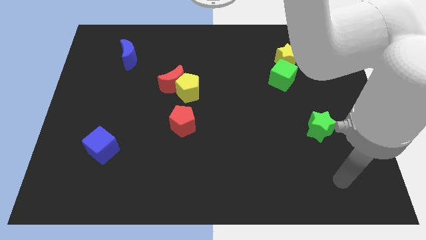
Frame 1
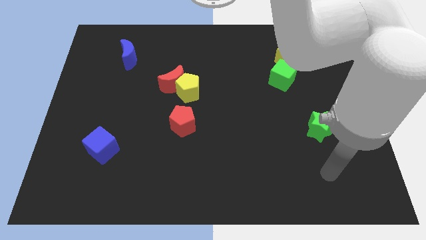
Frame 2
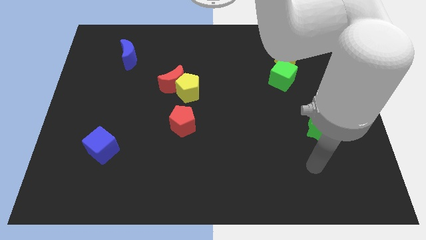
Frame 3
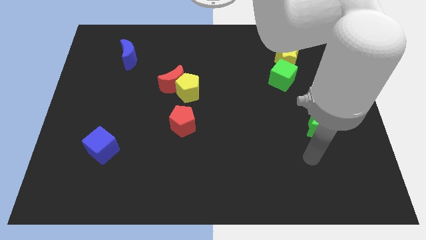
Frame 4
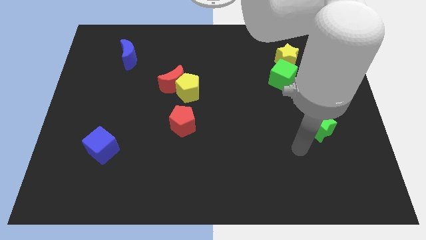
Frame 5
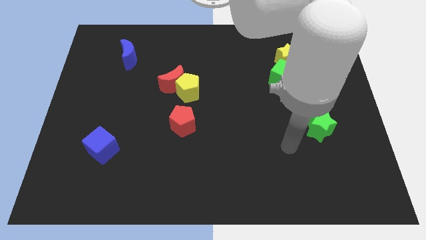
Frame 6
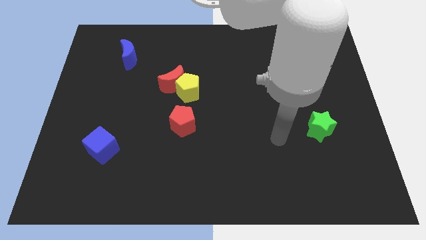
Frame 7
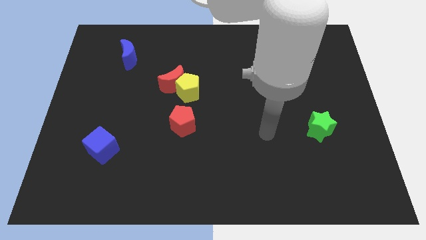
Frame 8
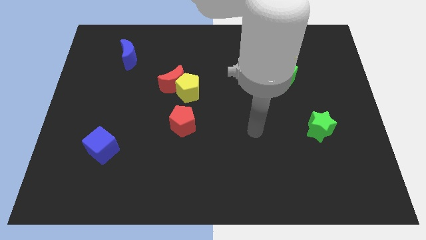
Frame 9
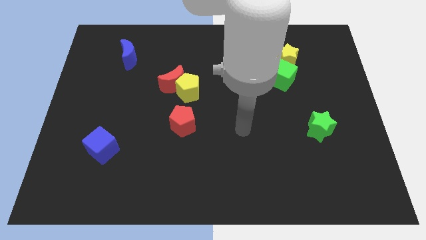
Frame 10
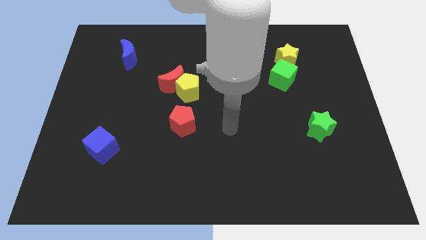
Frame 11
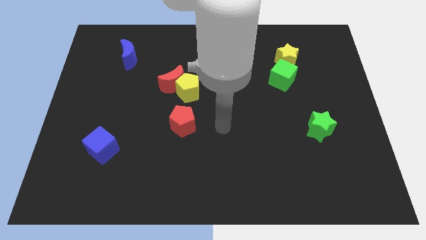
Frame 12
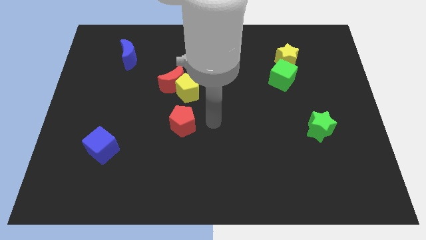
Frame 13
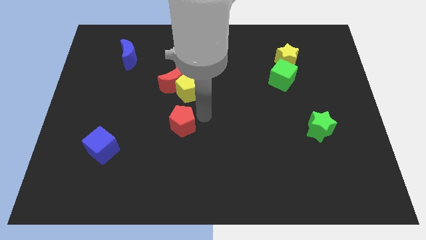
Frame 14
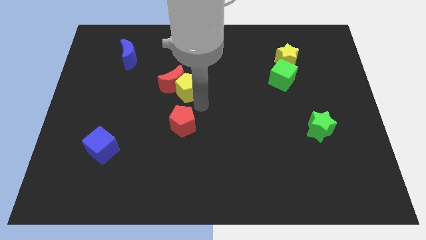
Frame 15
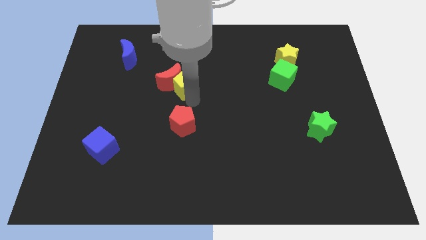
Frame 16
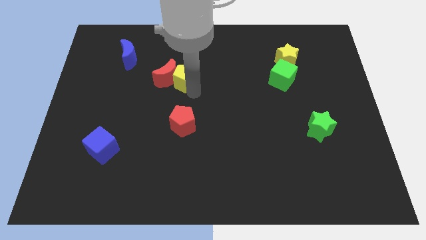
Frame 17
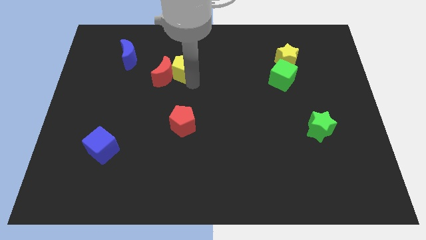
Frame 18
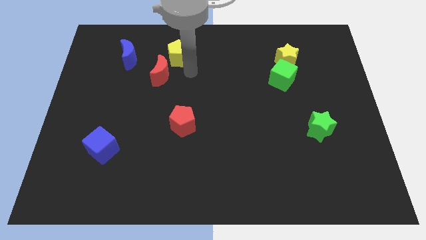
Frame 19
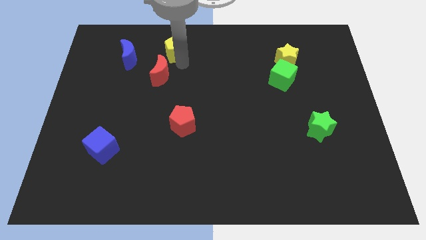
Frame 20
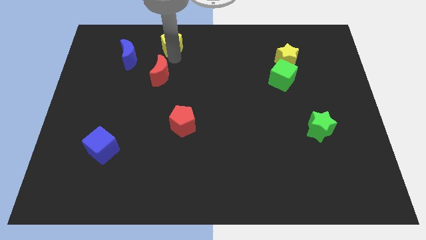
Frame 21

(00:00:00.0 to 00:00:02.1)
separate the red moon from the yellow pentagon

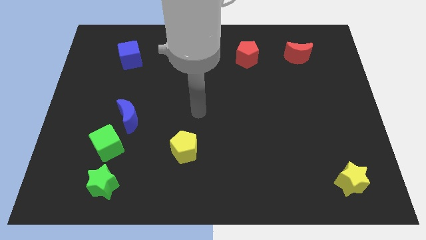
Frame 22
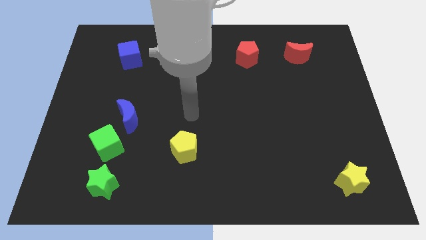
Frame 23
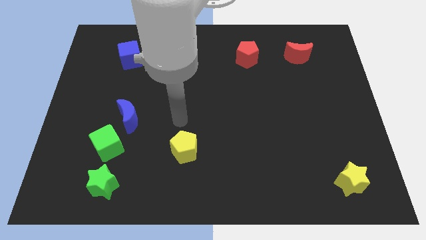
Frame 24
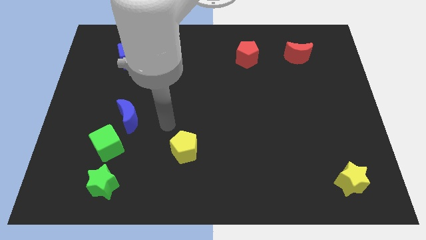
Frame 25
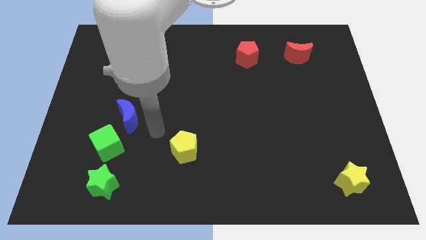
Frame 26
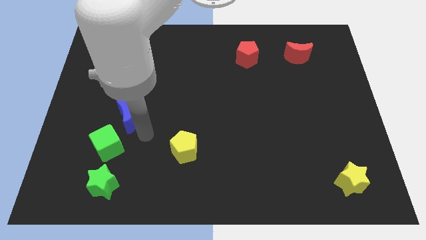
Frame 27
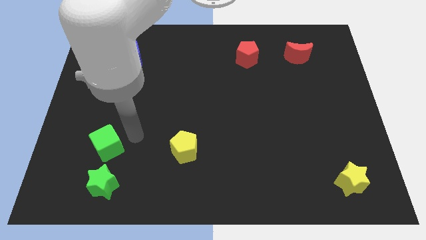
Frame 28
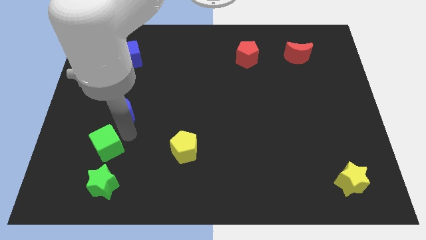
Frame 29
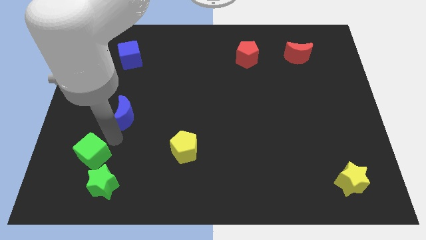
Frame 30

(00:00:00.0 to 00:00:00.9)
move the blue moon away from the green cube

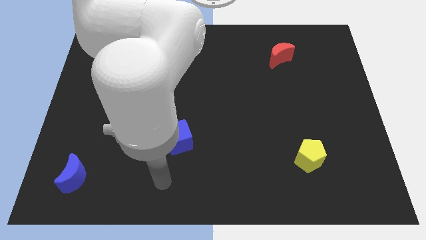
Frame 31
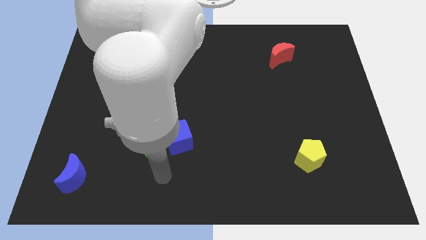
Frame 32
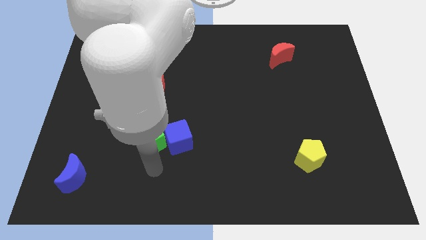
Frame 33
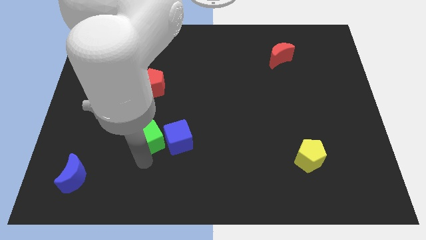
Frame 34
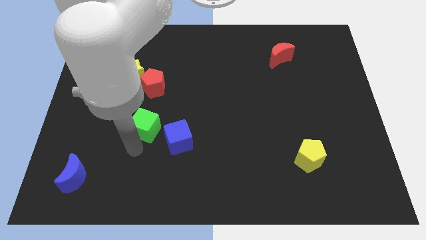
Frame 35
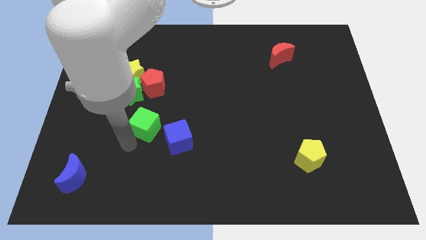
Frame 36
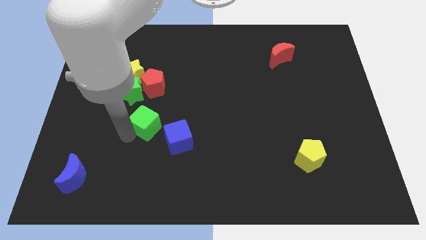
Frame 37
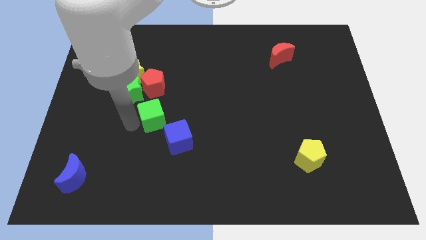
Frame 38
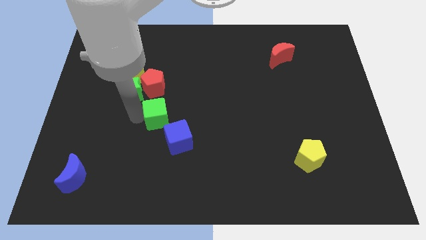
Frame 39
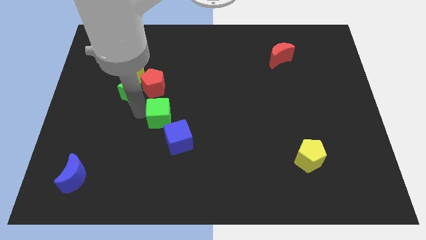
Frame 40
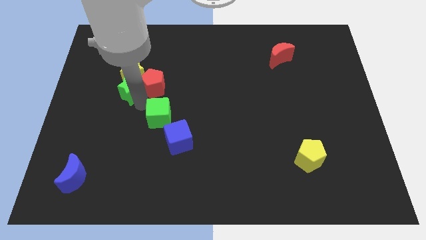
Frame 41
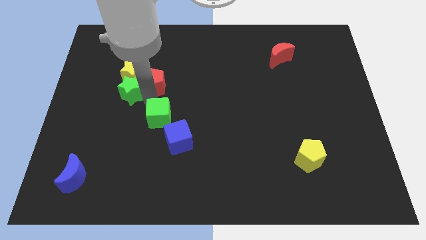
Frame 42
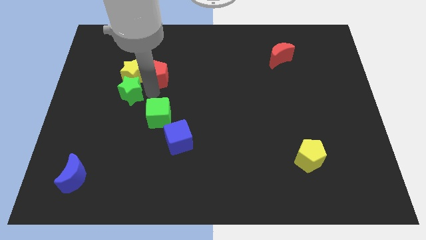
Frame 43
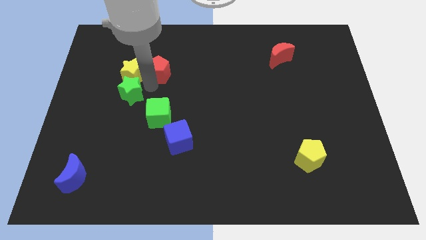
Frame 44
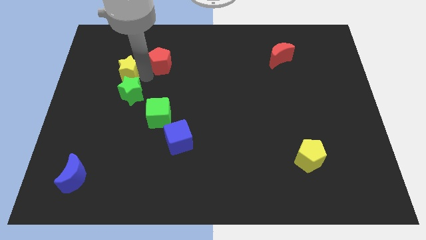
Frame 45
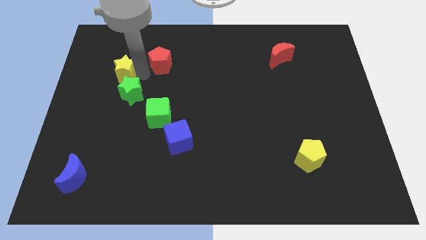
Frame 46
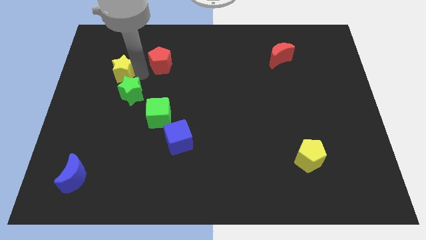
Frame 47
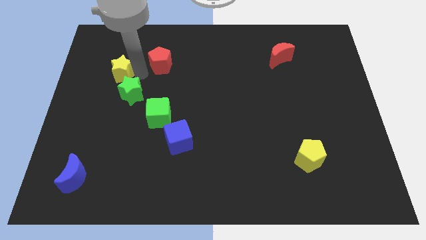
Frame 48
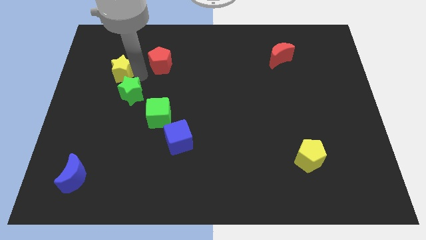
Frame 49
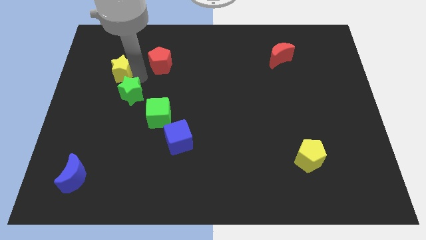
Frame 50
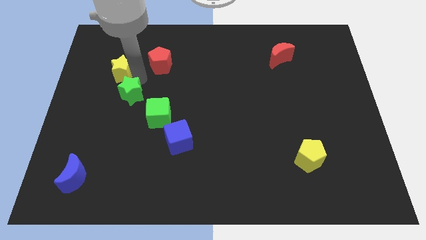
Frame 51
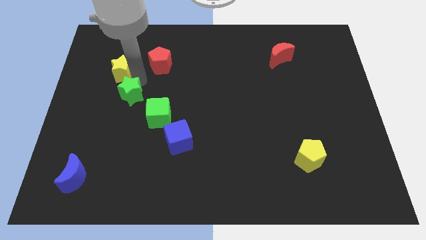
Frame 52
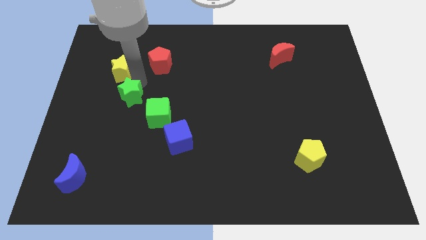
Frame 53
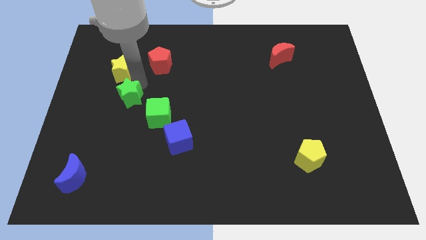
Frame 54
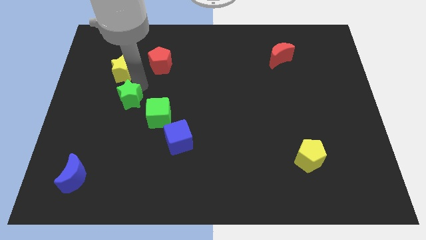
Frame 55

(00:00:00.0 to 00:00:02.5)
pull the green star apart from the yellow star and red pentagon

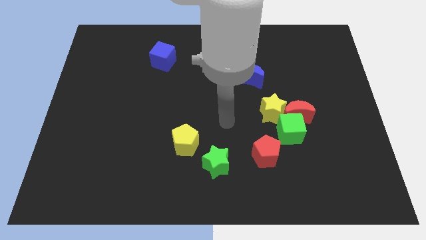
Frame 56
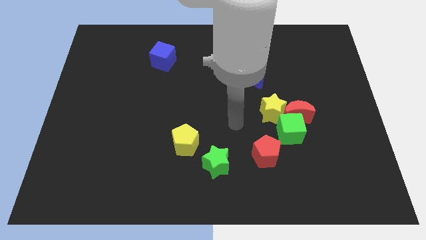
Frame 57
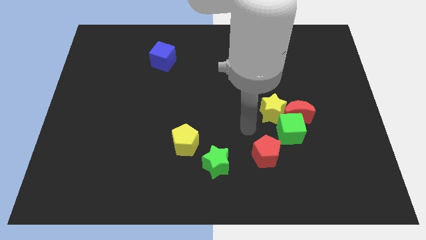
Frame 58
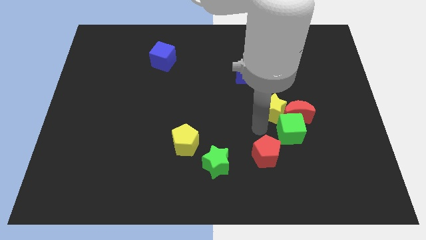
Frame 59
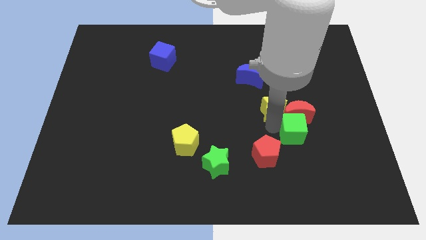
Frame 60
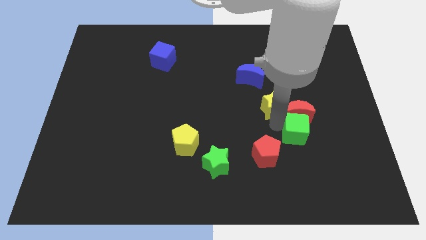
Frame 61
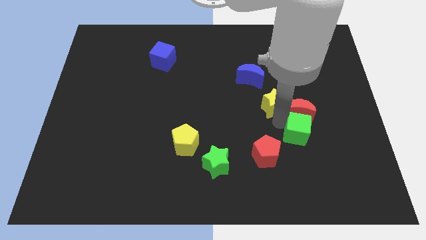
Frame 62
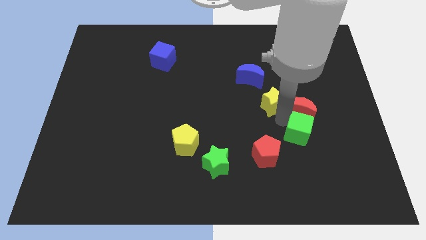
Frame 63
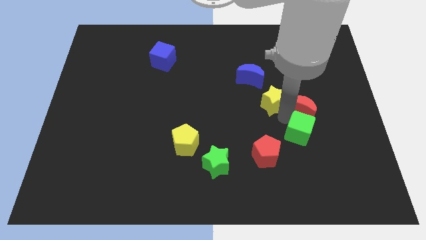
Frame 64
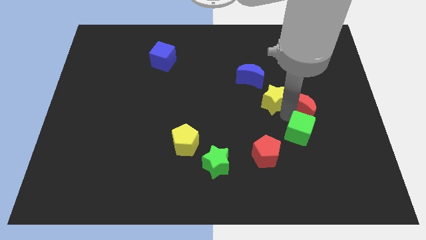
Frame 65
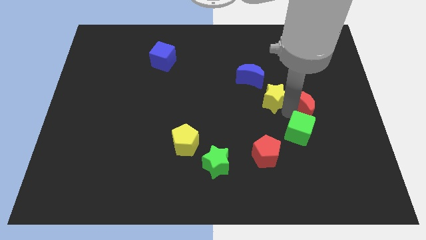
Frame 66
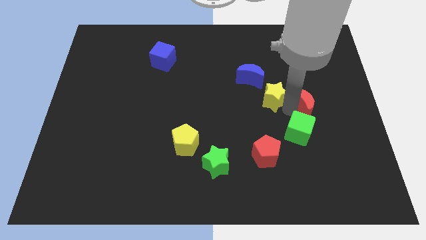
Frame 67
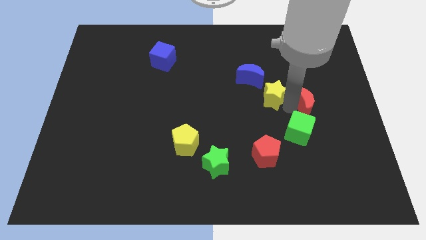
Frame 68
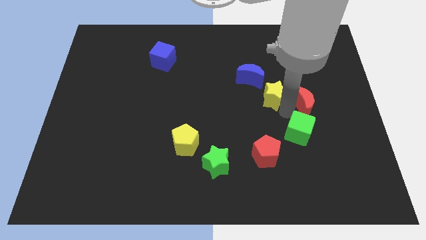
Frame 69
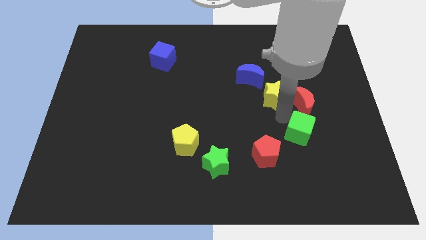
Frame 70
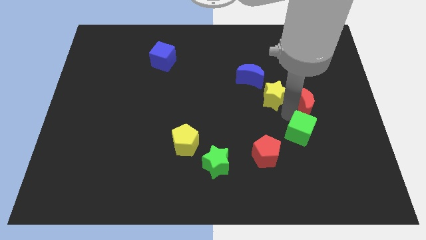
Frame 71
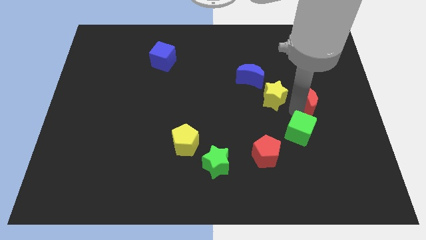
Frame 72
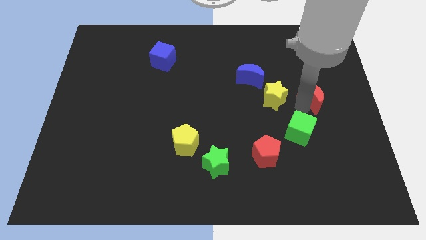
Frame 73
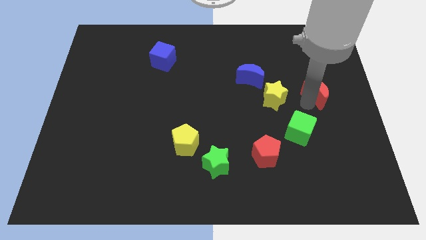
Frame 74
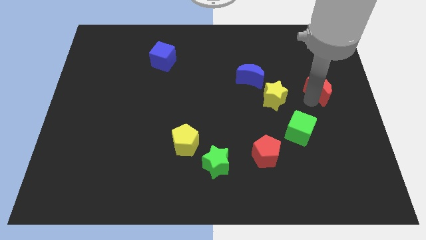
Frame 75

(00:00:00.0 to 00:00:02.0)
move the red moon away from the green cube and yellow star

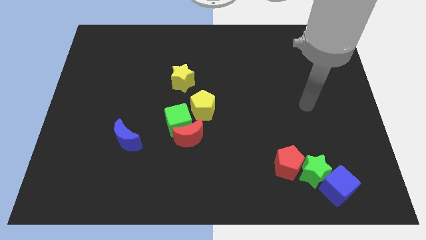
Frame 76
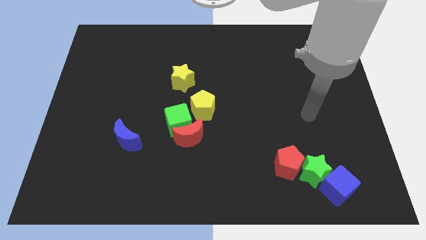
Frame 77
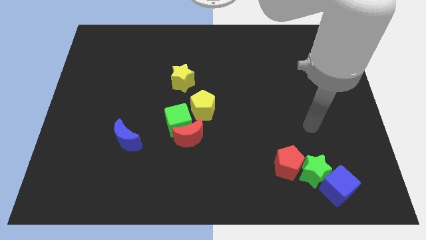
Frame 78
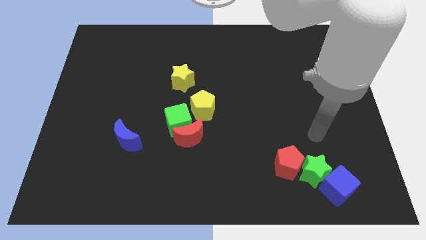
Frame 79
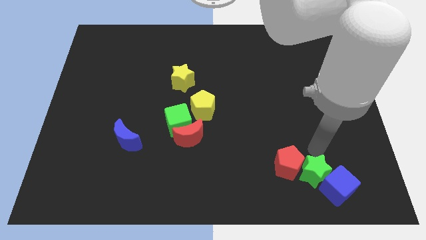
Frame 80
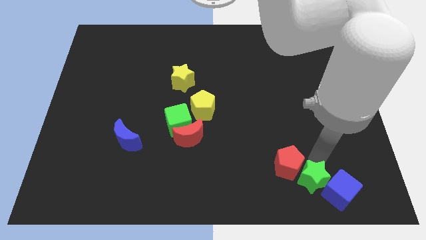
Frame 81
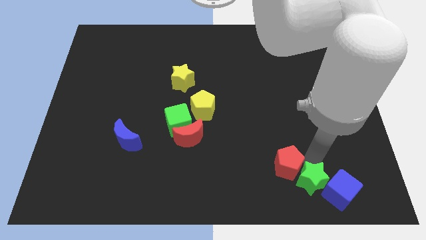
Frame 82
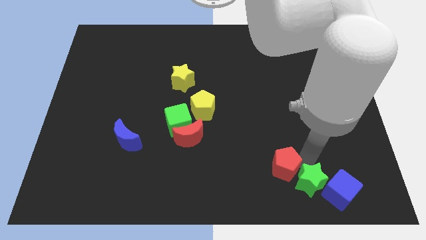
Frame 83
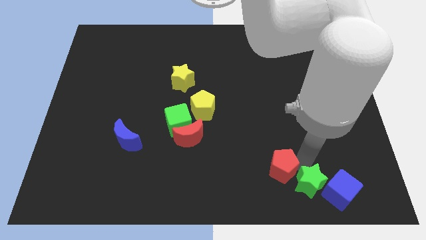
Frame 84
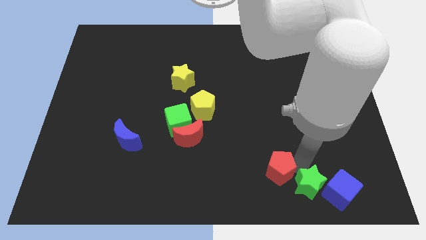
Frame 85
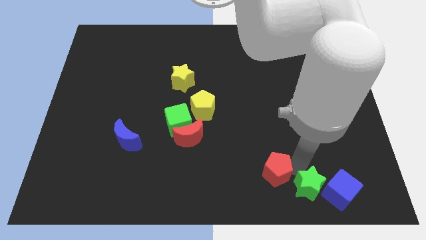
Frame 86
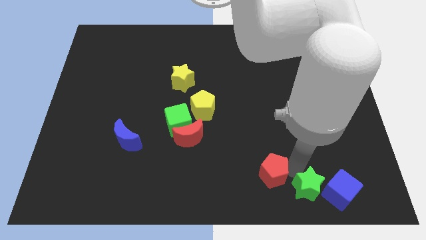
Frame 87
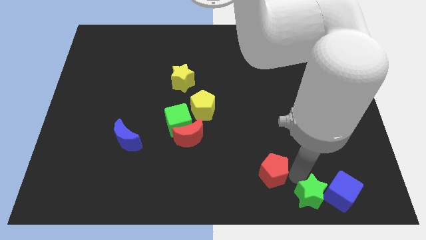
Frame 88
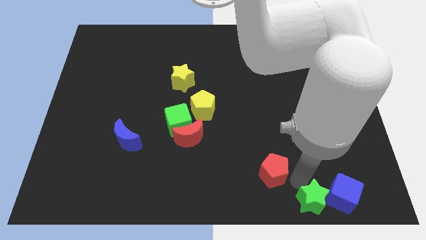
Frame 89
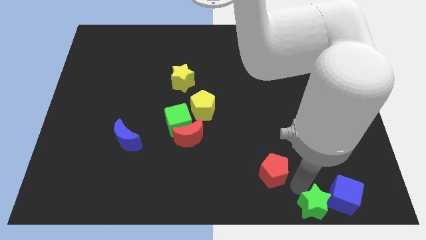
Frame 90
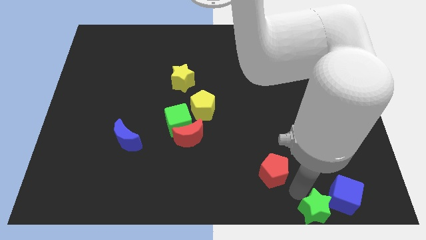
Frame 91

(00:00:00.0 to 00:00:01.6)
pull the red pentagon apart from the green star
